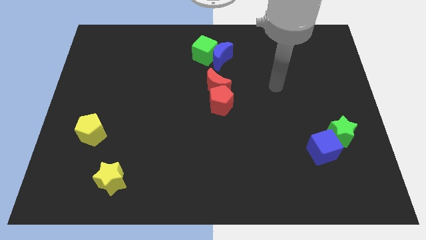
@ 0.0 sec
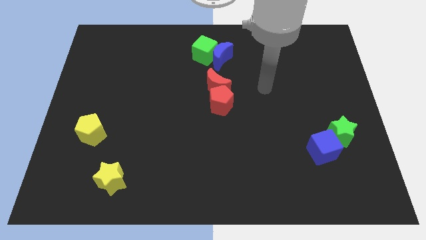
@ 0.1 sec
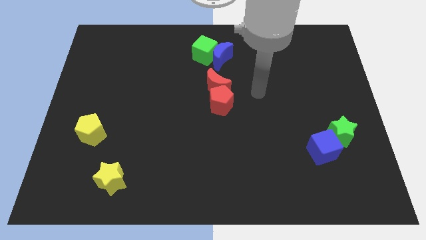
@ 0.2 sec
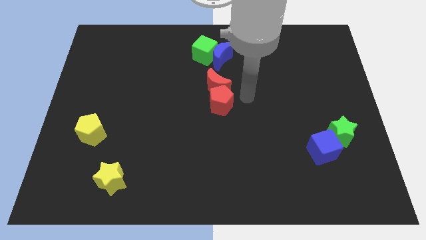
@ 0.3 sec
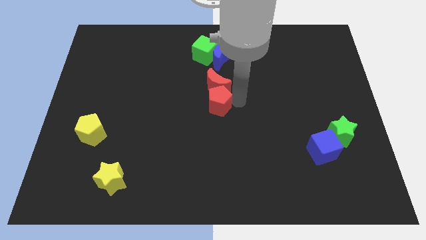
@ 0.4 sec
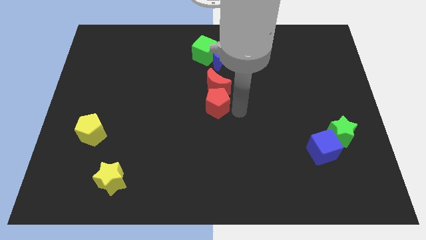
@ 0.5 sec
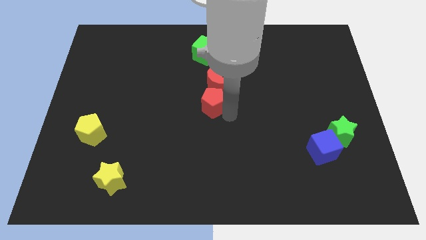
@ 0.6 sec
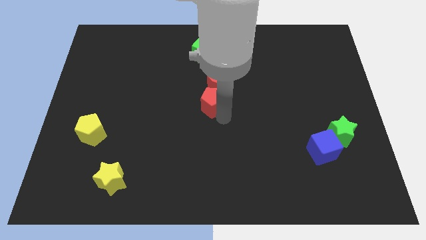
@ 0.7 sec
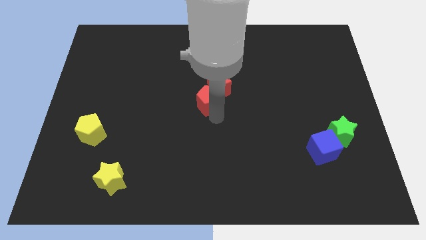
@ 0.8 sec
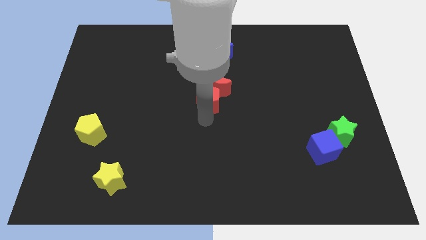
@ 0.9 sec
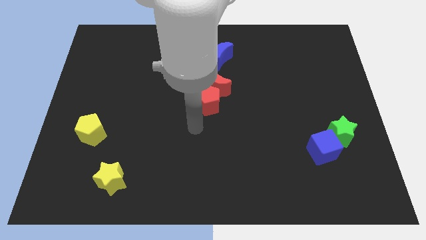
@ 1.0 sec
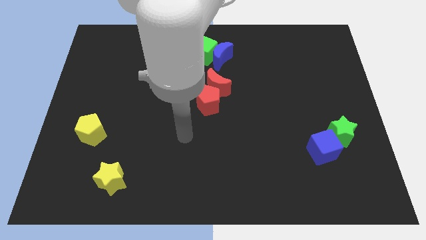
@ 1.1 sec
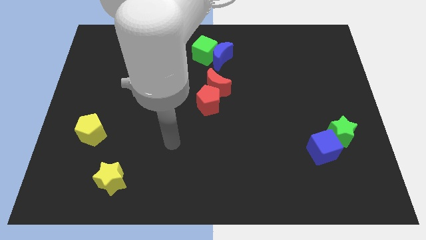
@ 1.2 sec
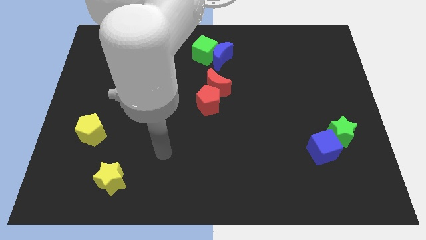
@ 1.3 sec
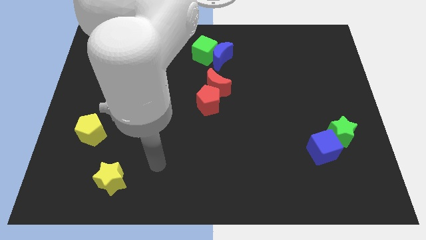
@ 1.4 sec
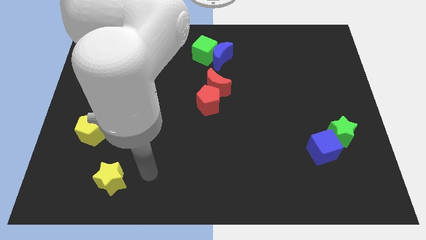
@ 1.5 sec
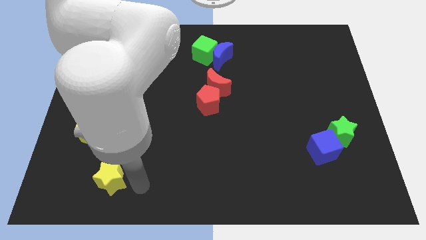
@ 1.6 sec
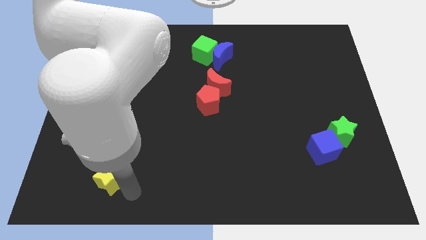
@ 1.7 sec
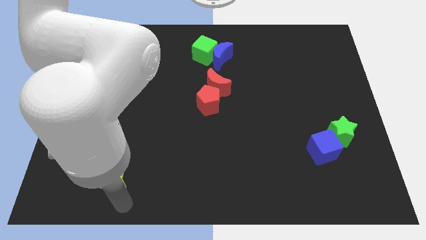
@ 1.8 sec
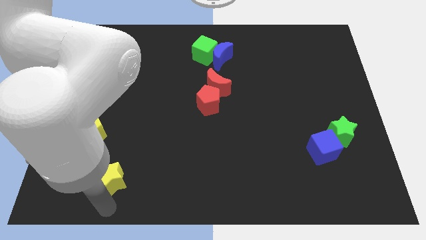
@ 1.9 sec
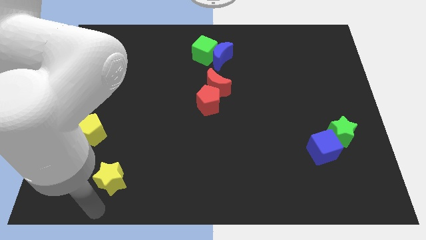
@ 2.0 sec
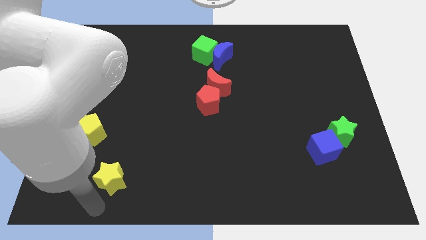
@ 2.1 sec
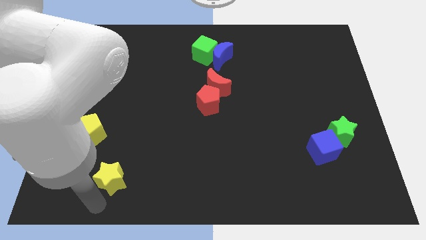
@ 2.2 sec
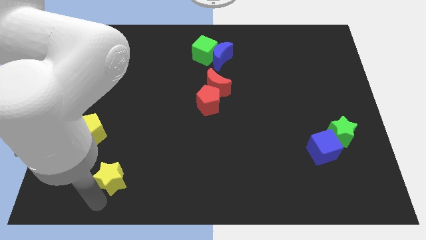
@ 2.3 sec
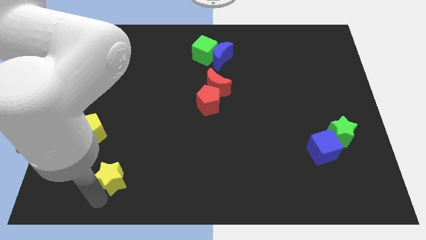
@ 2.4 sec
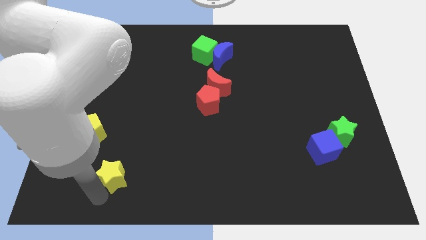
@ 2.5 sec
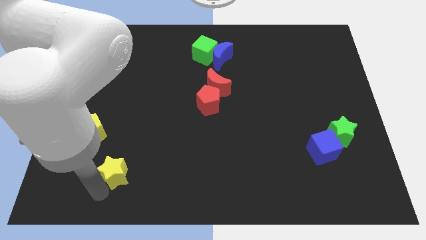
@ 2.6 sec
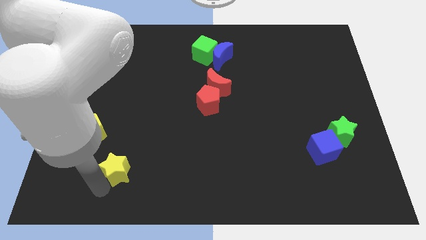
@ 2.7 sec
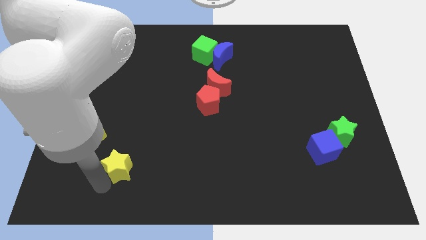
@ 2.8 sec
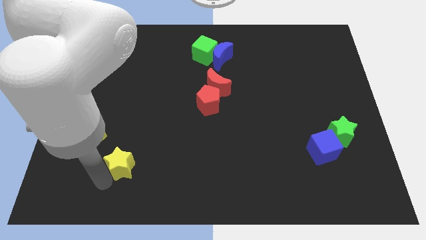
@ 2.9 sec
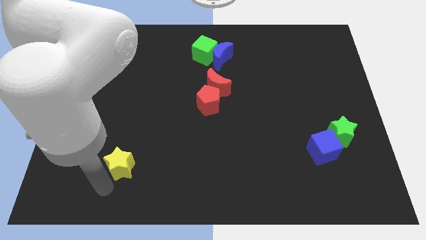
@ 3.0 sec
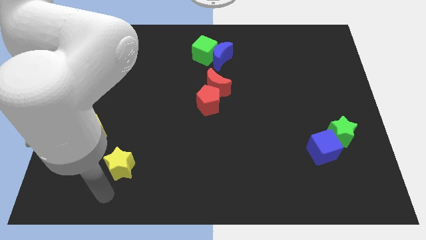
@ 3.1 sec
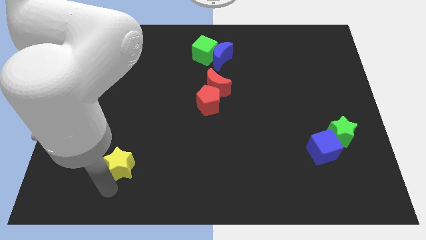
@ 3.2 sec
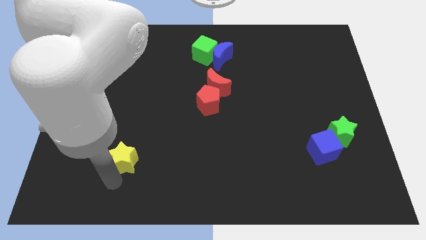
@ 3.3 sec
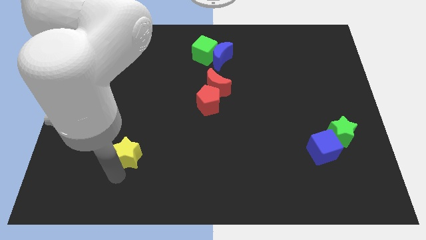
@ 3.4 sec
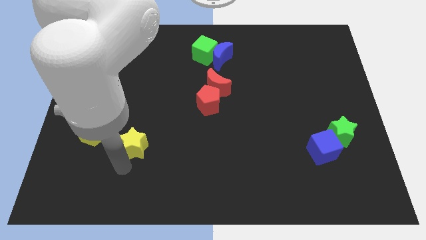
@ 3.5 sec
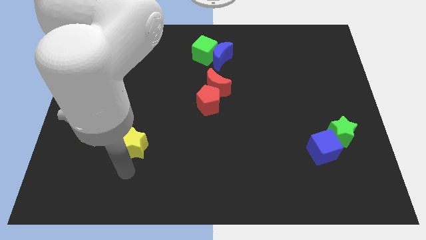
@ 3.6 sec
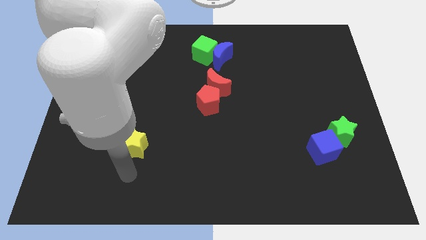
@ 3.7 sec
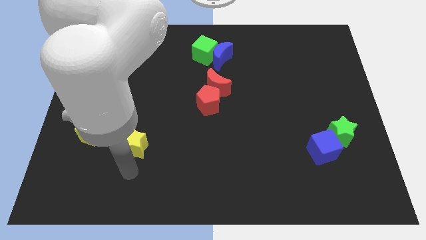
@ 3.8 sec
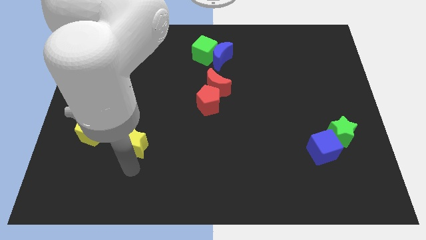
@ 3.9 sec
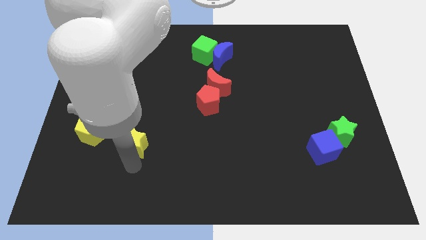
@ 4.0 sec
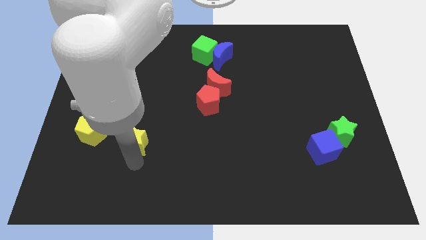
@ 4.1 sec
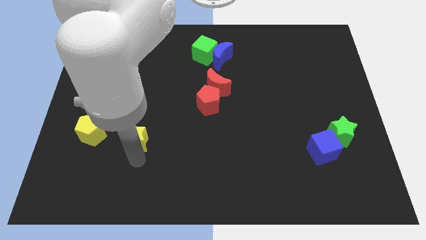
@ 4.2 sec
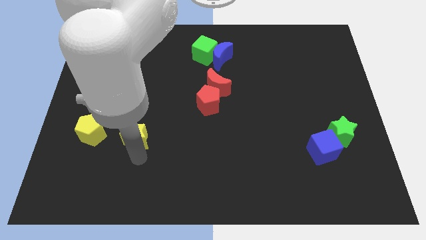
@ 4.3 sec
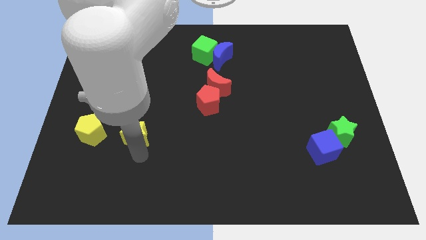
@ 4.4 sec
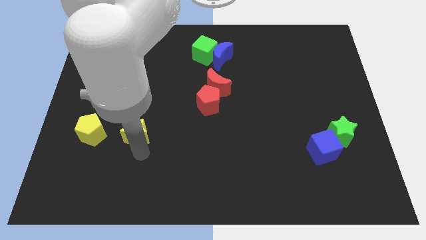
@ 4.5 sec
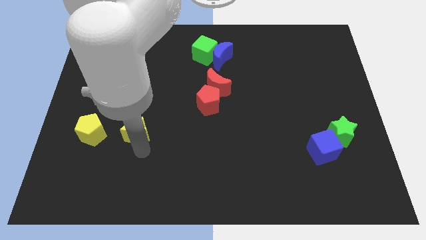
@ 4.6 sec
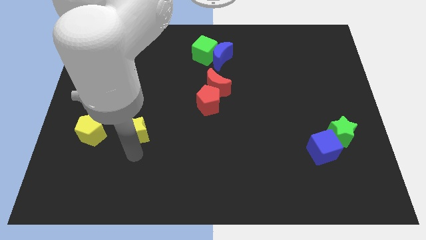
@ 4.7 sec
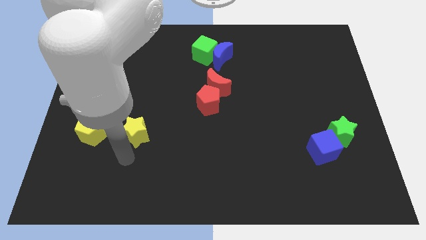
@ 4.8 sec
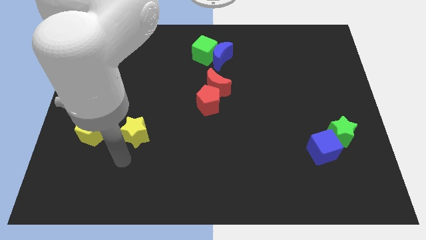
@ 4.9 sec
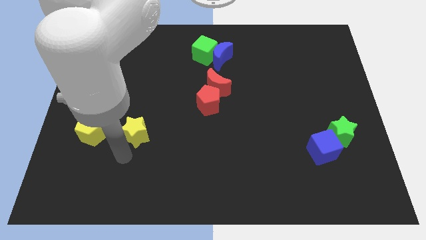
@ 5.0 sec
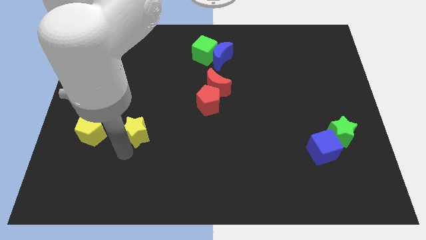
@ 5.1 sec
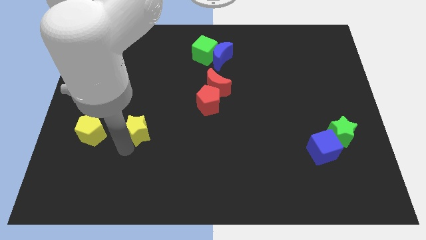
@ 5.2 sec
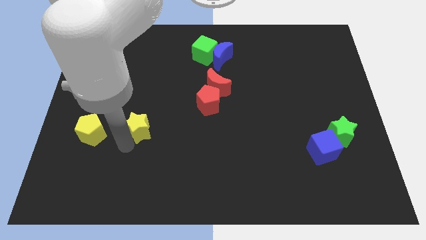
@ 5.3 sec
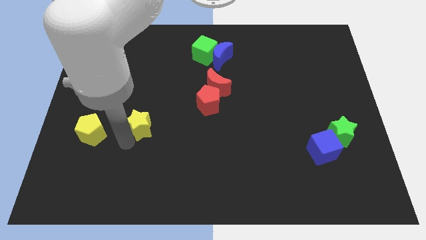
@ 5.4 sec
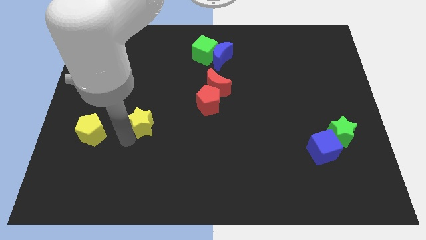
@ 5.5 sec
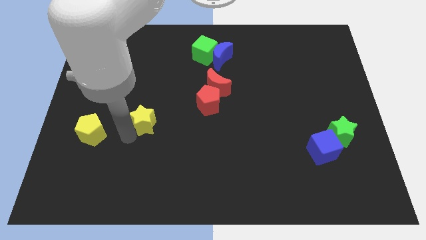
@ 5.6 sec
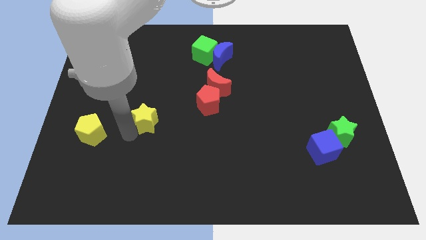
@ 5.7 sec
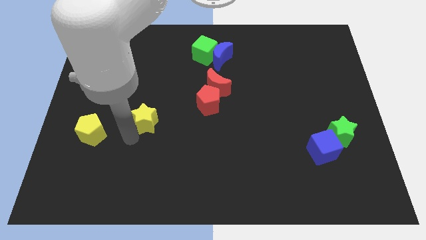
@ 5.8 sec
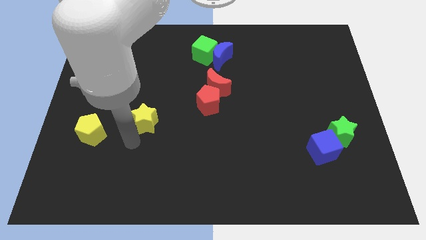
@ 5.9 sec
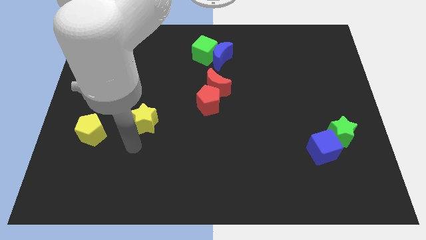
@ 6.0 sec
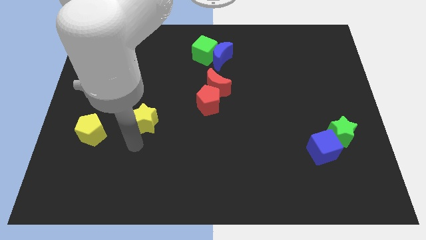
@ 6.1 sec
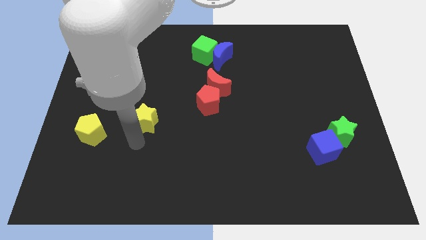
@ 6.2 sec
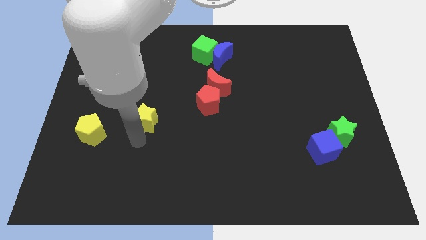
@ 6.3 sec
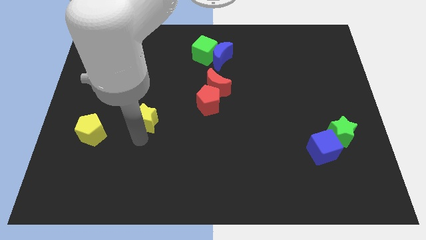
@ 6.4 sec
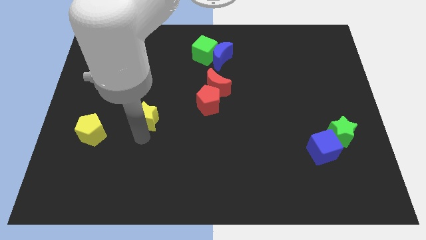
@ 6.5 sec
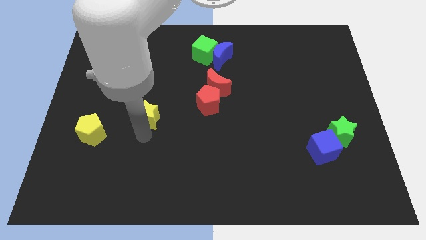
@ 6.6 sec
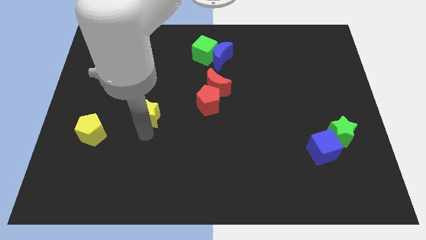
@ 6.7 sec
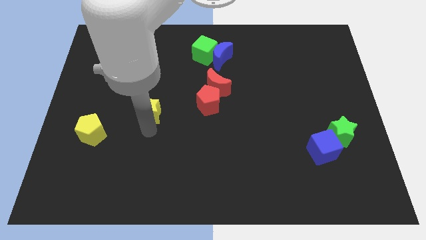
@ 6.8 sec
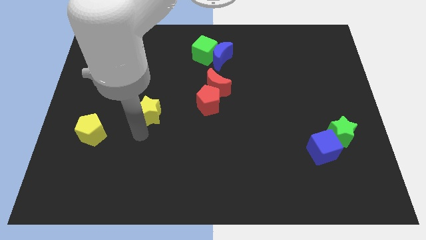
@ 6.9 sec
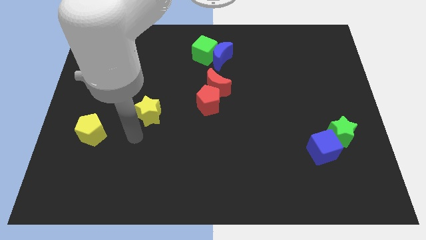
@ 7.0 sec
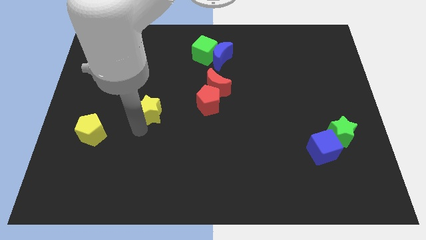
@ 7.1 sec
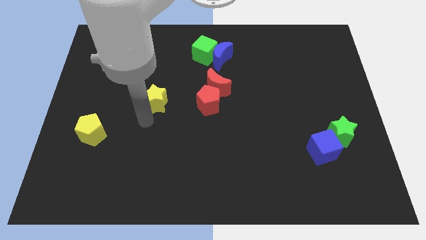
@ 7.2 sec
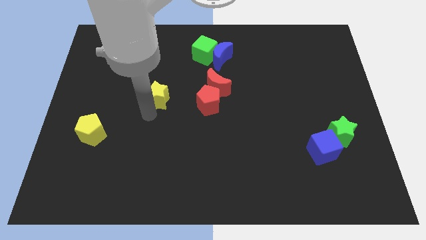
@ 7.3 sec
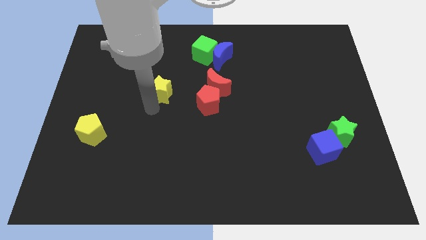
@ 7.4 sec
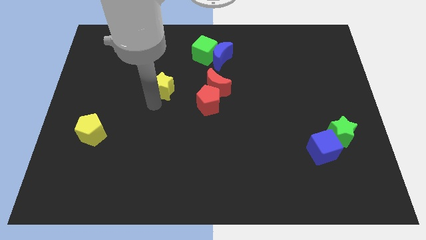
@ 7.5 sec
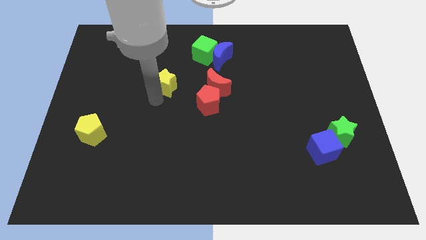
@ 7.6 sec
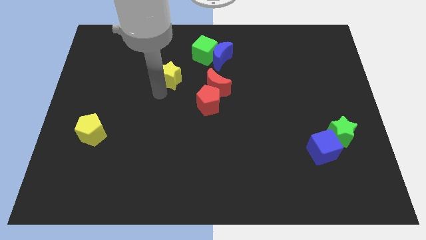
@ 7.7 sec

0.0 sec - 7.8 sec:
push the yellow star diagonally down and to the left of the green cube
